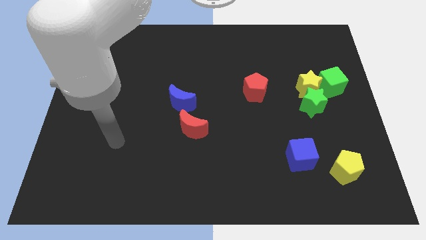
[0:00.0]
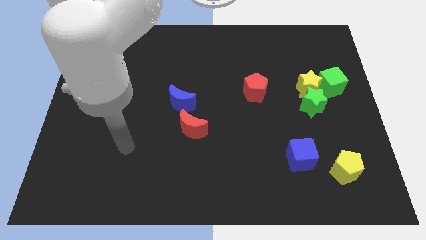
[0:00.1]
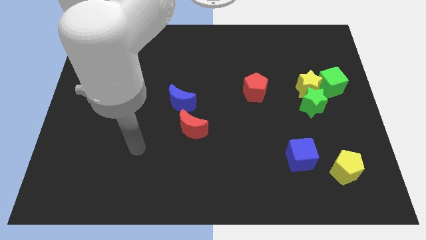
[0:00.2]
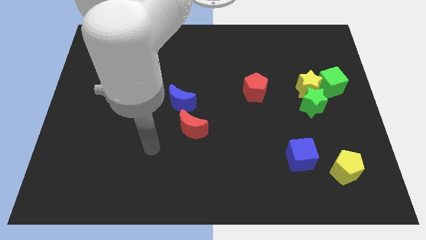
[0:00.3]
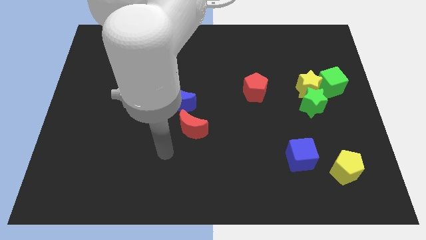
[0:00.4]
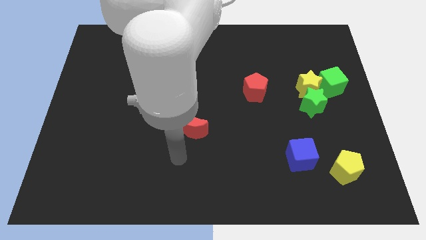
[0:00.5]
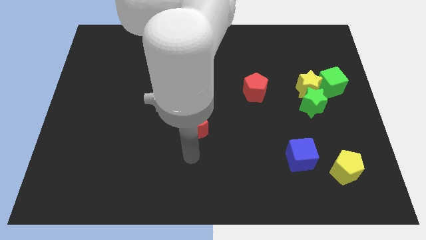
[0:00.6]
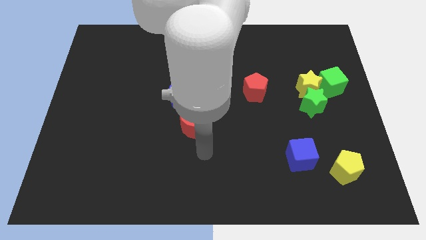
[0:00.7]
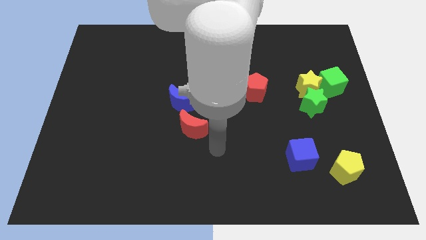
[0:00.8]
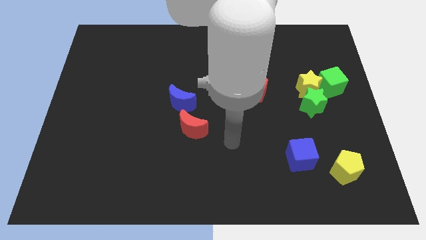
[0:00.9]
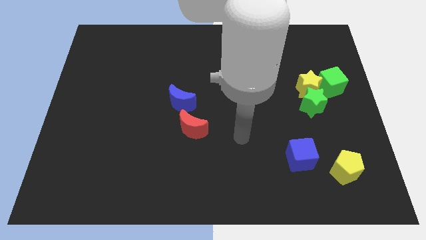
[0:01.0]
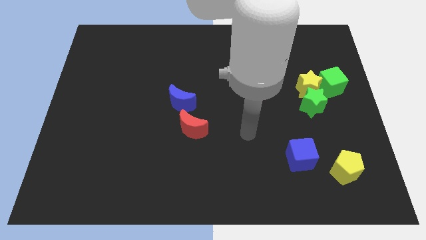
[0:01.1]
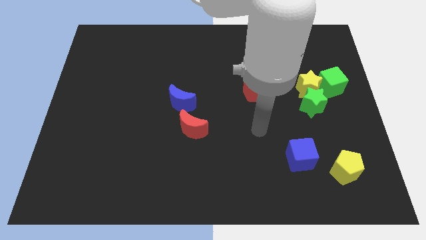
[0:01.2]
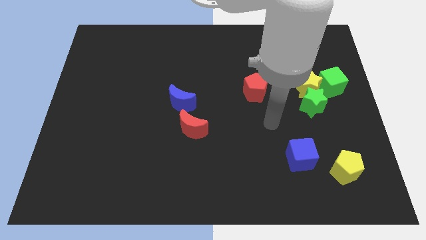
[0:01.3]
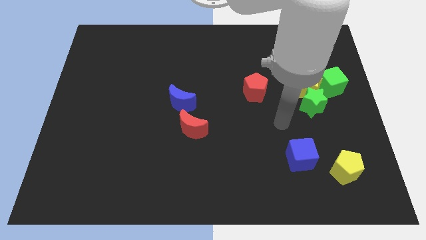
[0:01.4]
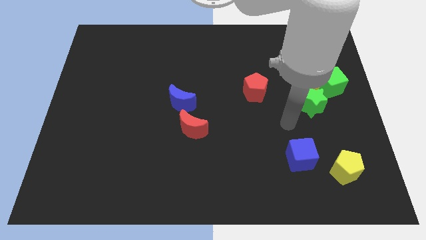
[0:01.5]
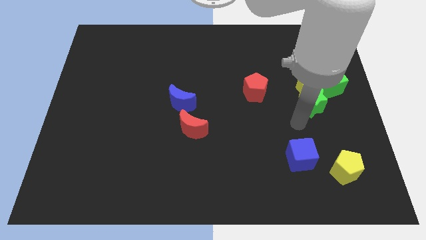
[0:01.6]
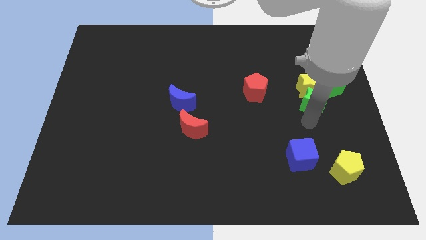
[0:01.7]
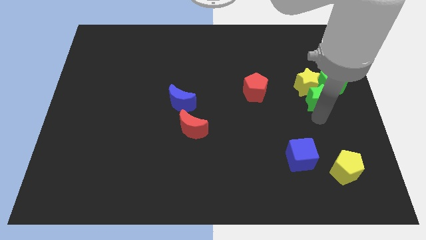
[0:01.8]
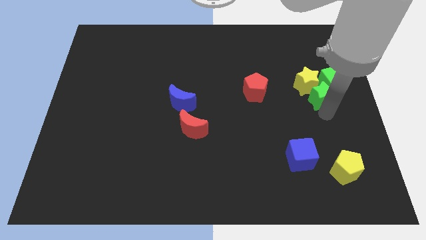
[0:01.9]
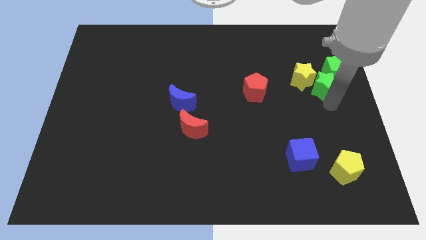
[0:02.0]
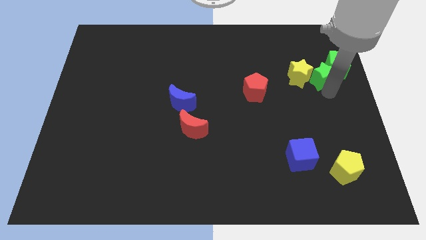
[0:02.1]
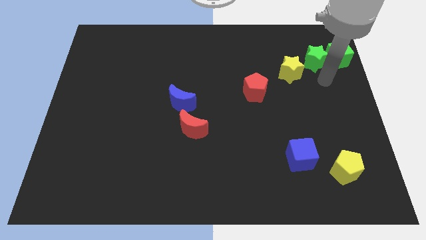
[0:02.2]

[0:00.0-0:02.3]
move the yellow star away from the green star and green cube

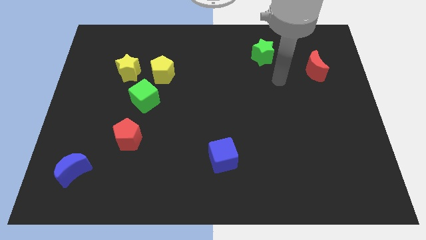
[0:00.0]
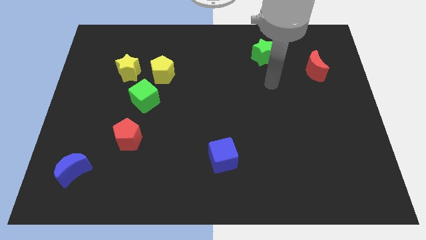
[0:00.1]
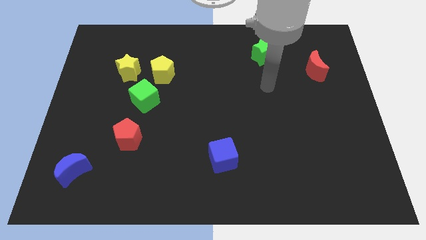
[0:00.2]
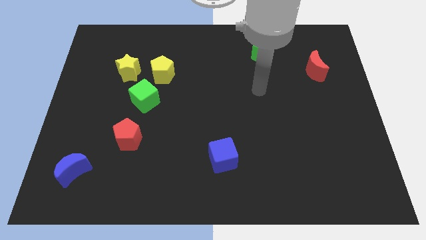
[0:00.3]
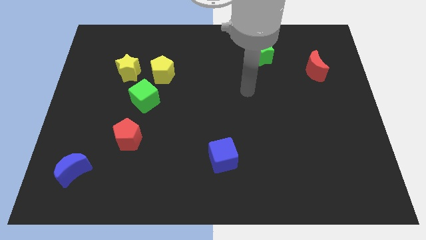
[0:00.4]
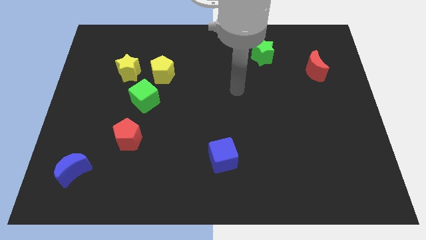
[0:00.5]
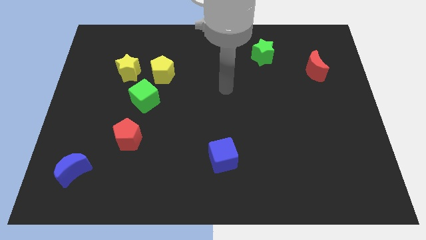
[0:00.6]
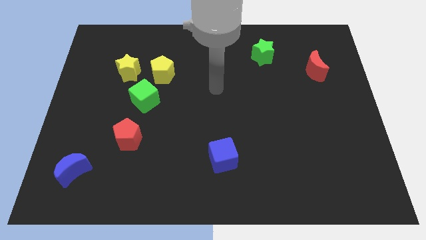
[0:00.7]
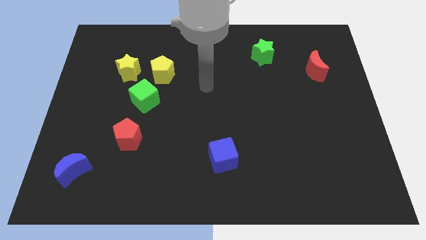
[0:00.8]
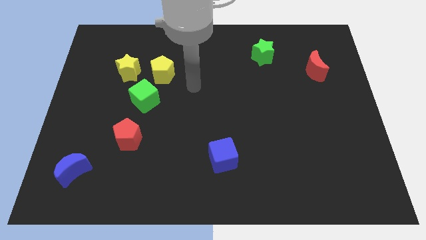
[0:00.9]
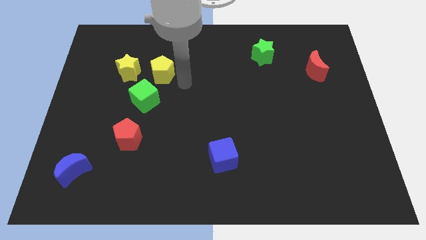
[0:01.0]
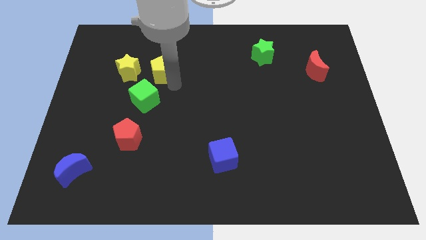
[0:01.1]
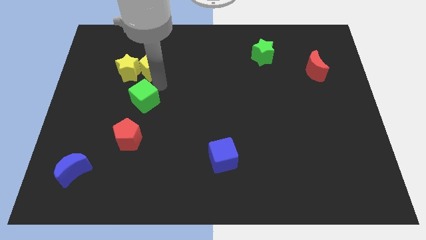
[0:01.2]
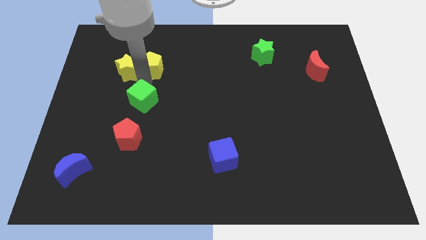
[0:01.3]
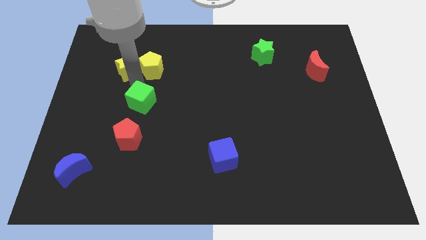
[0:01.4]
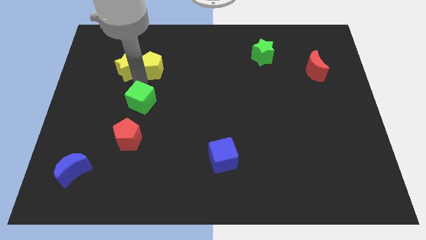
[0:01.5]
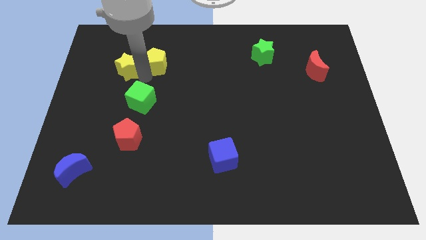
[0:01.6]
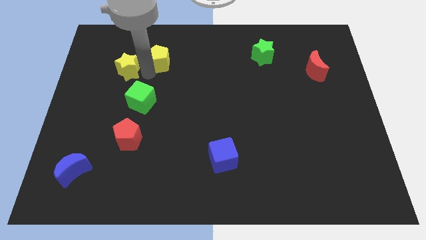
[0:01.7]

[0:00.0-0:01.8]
pull the yellow pentagon apart from the yellow star and green cube

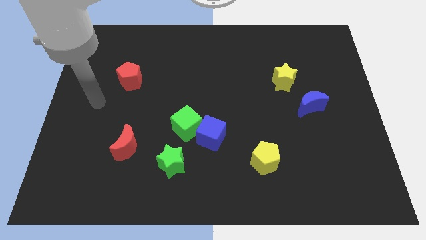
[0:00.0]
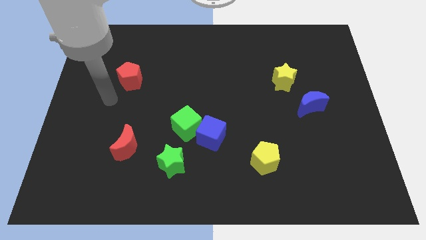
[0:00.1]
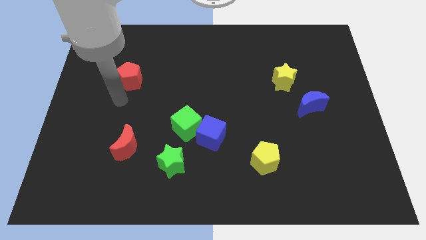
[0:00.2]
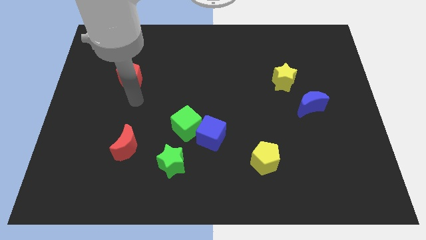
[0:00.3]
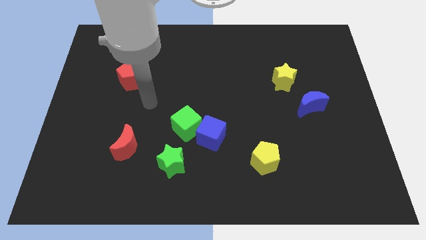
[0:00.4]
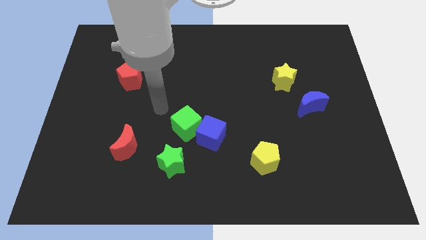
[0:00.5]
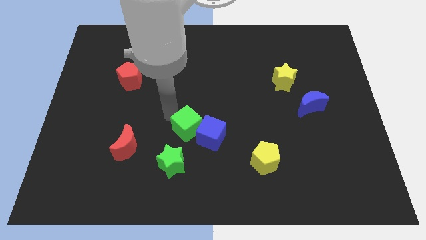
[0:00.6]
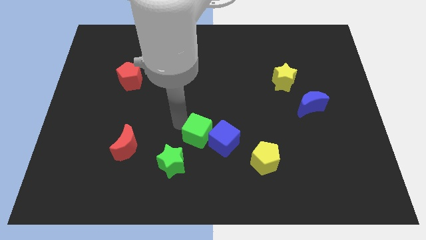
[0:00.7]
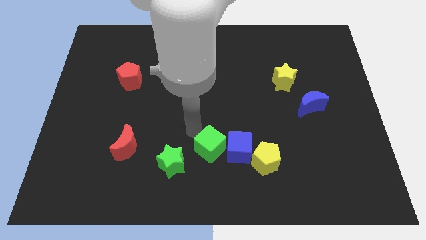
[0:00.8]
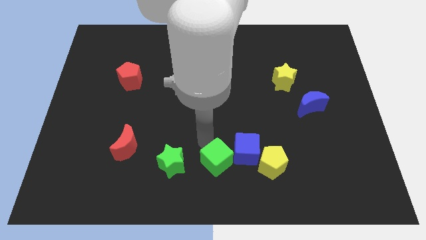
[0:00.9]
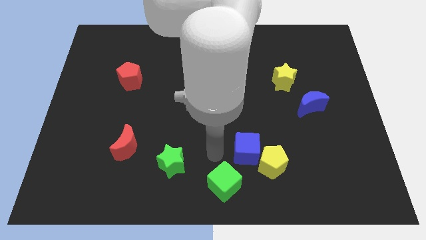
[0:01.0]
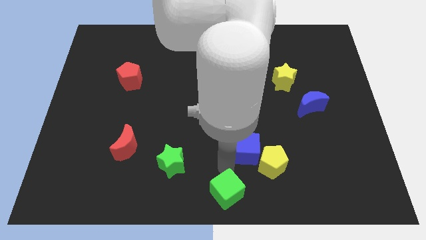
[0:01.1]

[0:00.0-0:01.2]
pull the blue cube apart from the green cube

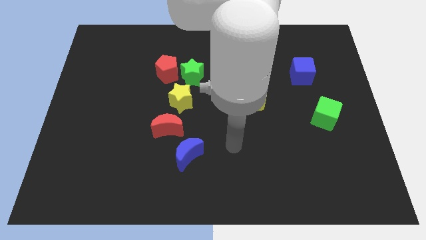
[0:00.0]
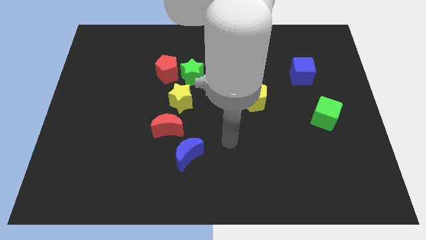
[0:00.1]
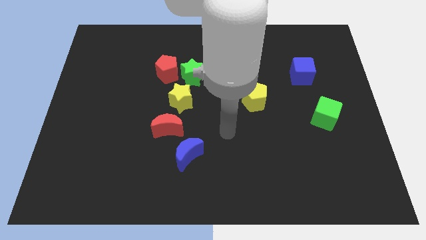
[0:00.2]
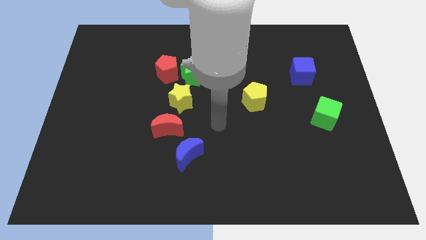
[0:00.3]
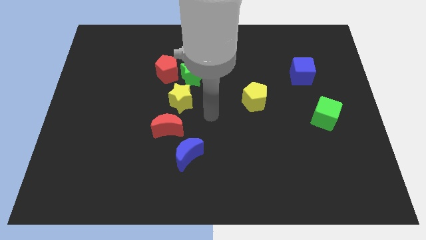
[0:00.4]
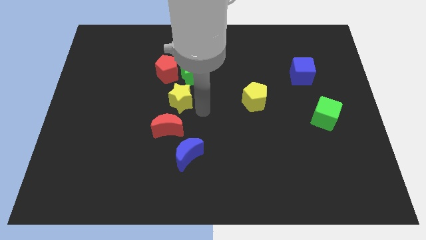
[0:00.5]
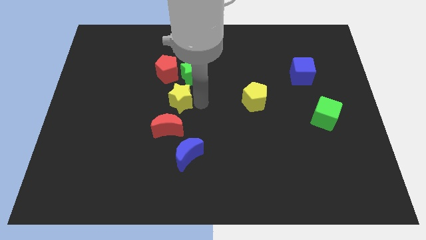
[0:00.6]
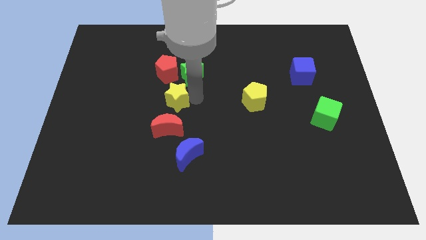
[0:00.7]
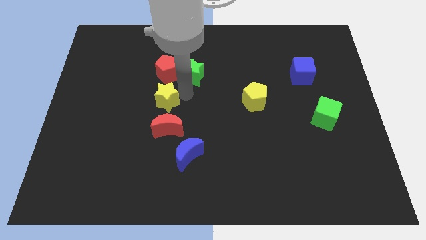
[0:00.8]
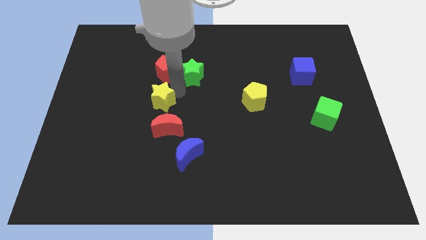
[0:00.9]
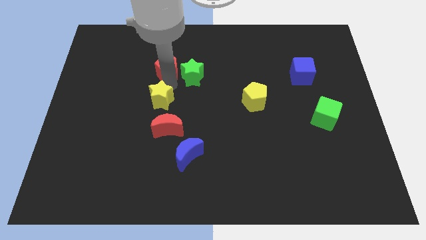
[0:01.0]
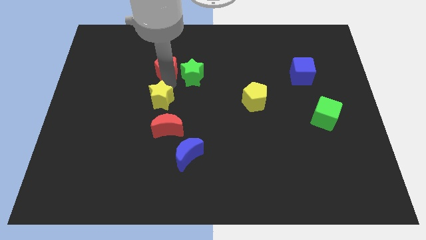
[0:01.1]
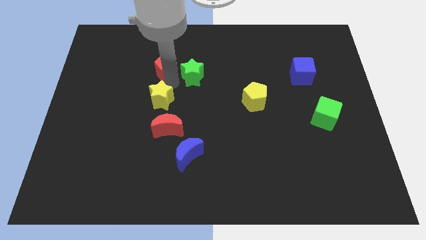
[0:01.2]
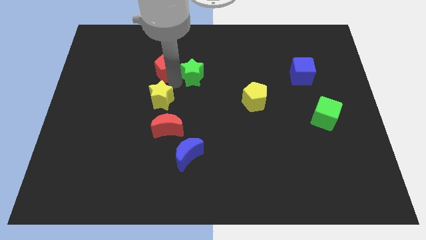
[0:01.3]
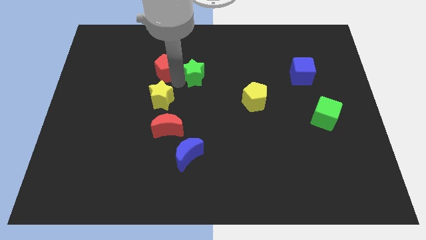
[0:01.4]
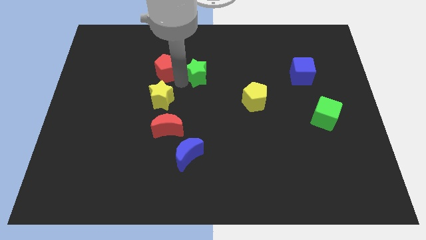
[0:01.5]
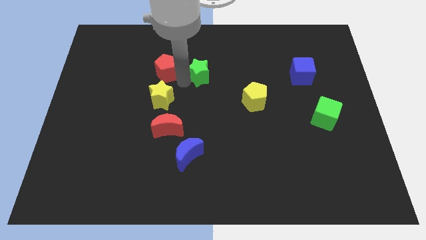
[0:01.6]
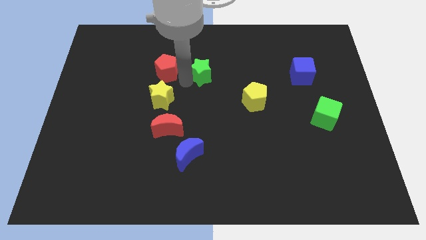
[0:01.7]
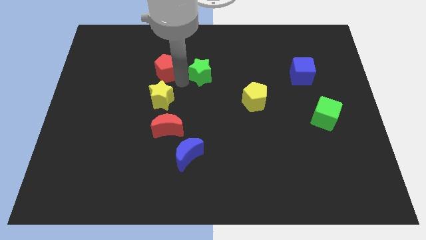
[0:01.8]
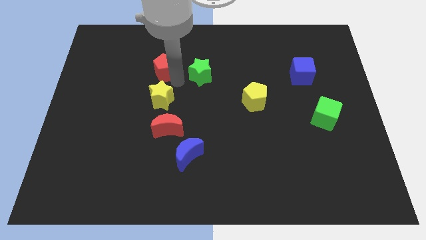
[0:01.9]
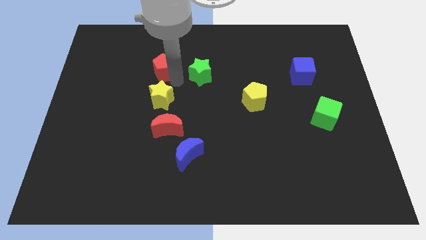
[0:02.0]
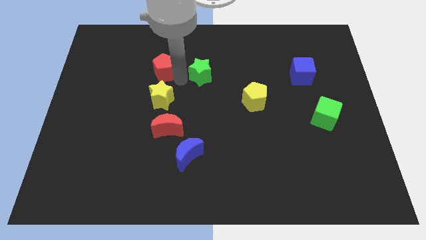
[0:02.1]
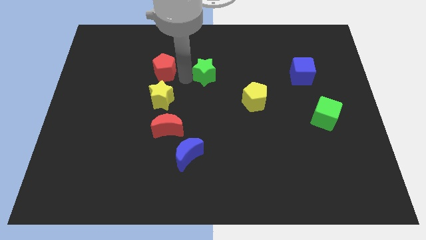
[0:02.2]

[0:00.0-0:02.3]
pull the green star apart from the red pentagon and yellow star

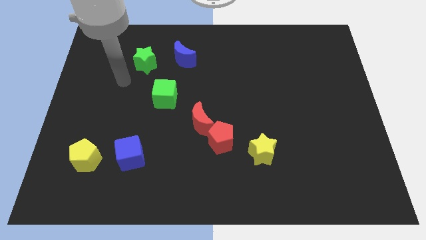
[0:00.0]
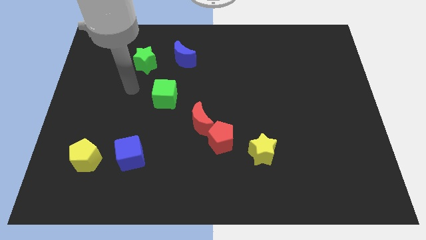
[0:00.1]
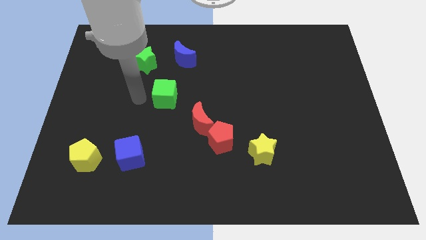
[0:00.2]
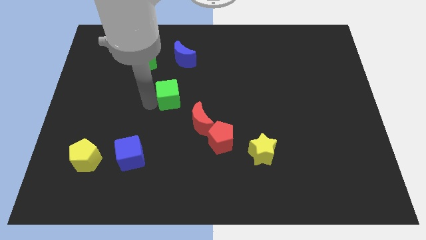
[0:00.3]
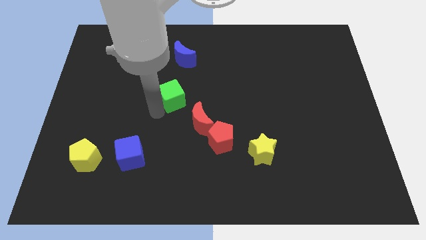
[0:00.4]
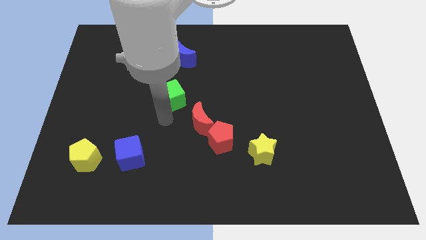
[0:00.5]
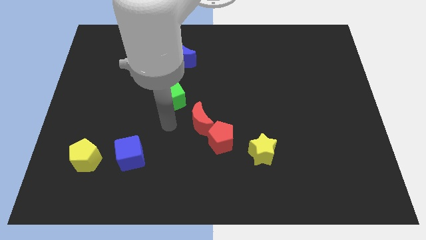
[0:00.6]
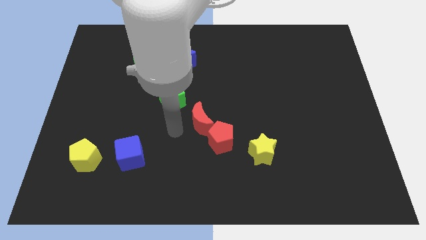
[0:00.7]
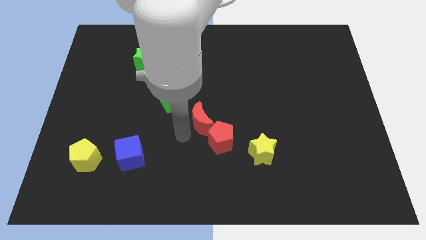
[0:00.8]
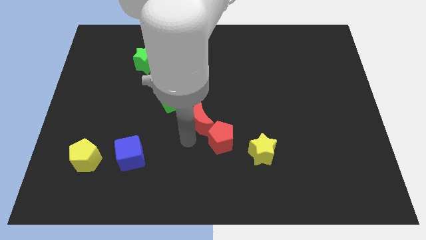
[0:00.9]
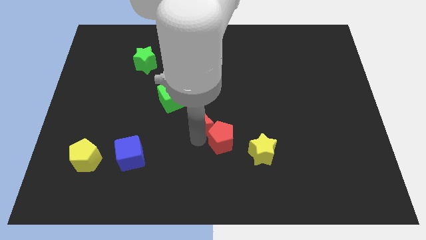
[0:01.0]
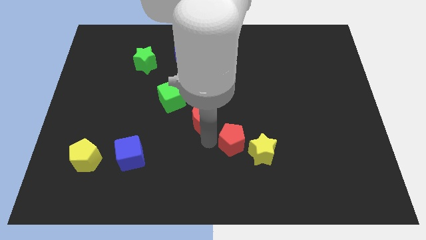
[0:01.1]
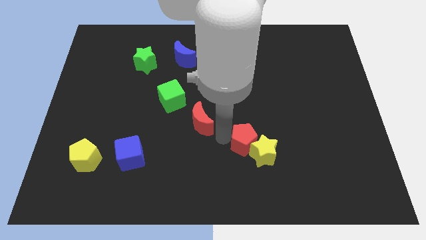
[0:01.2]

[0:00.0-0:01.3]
move the red moon away from the red pentagon

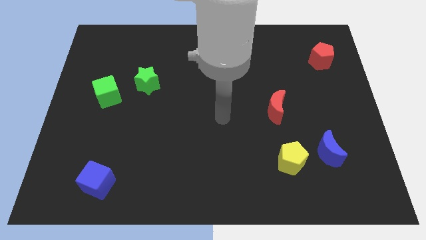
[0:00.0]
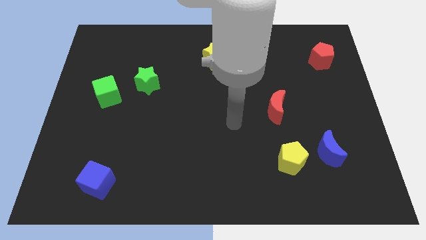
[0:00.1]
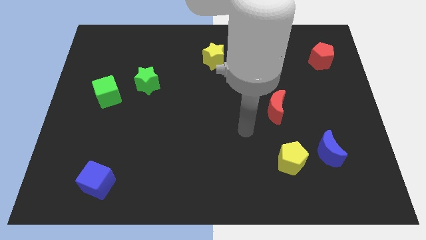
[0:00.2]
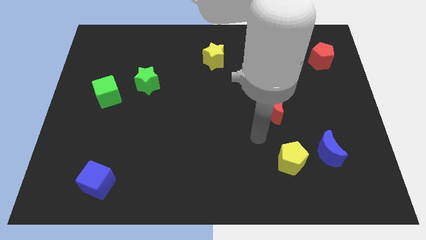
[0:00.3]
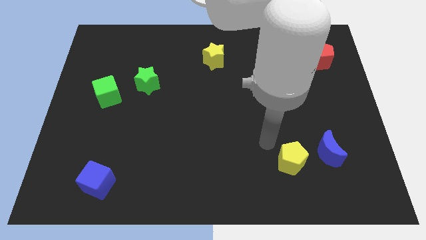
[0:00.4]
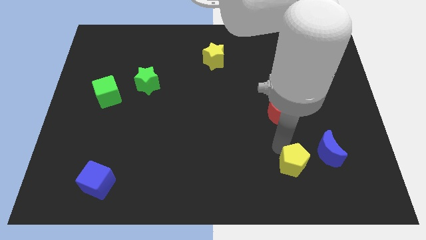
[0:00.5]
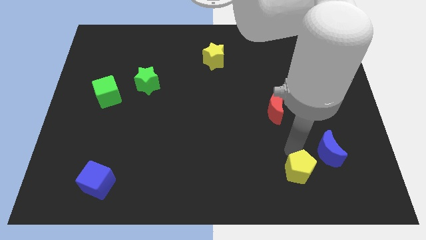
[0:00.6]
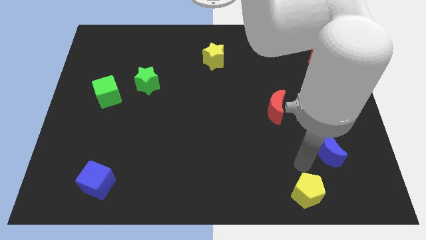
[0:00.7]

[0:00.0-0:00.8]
pull the blue moon apart from the yellow pentagon
